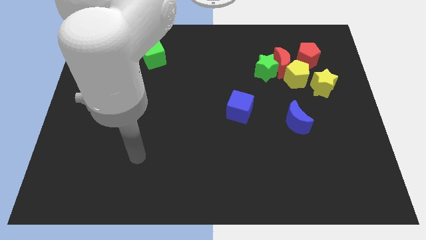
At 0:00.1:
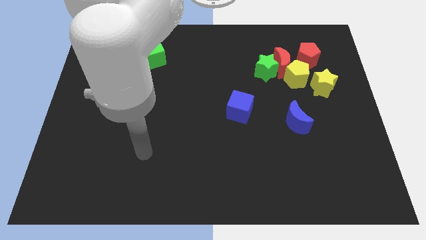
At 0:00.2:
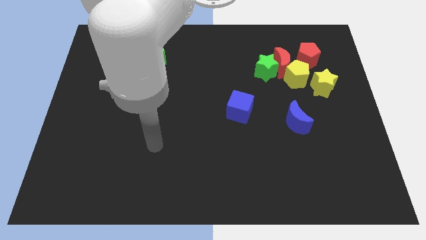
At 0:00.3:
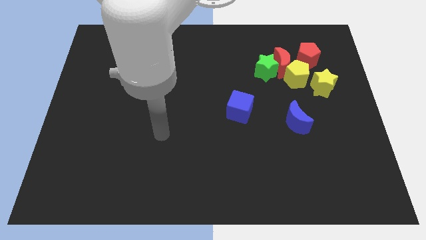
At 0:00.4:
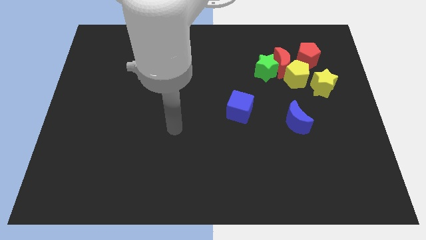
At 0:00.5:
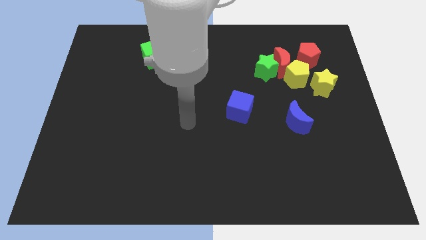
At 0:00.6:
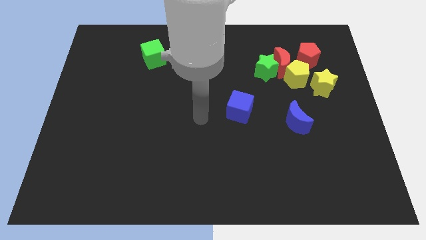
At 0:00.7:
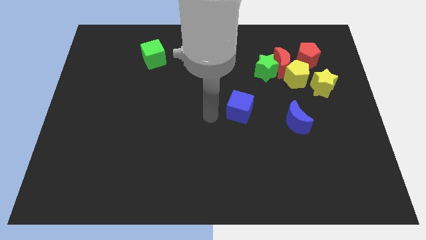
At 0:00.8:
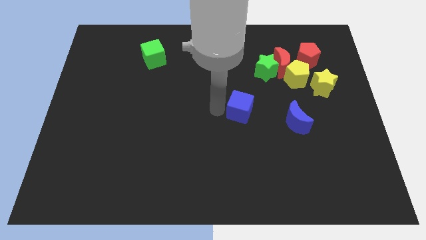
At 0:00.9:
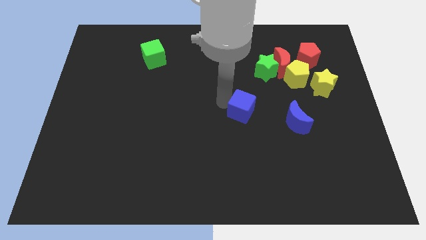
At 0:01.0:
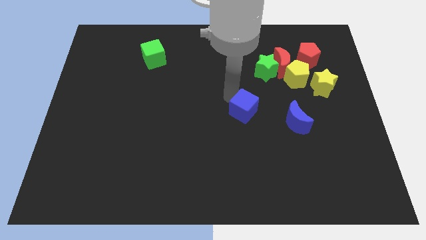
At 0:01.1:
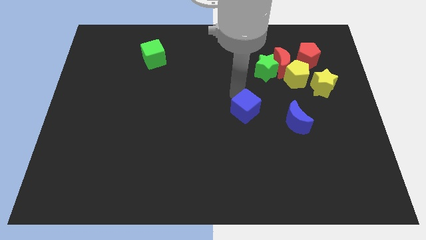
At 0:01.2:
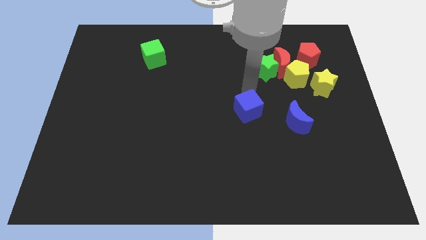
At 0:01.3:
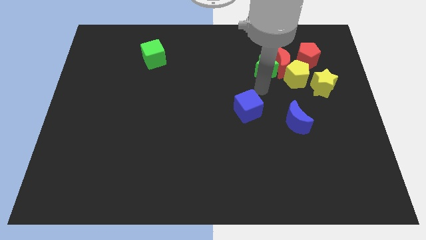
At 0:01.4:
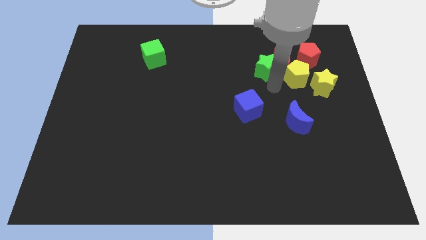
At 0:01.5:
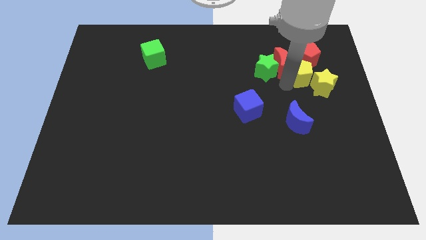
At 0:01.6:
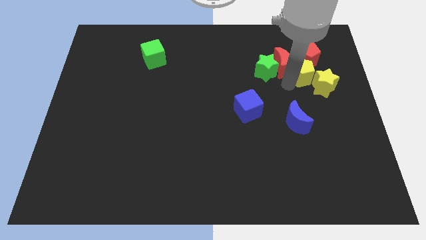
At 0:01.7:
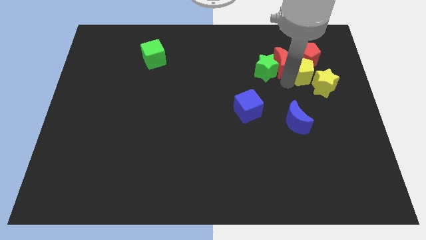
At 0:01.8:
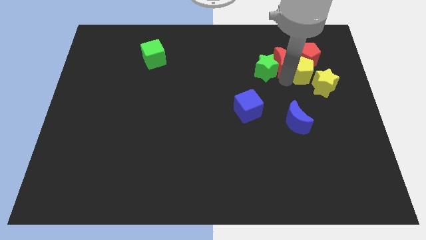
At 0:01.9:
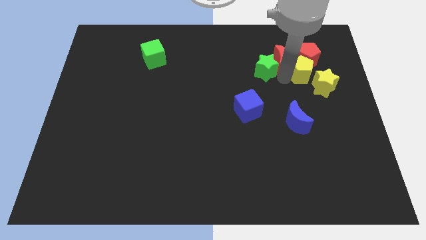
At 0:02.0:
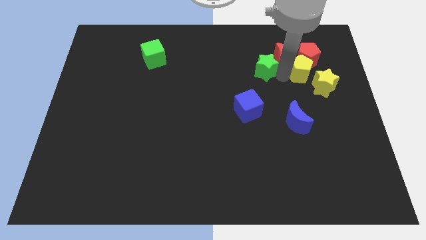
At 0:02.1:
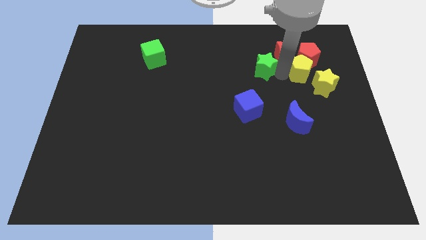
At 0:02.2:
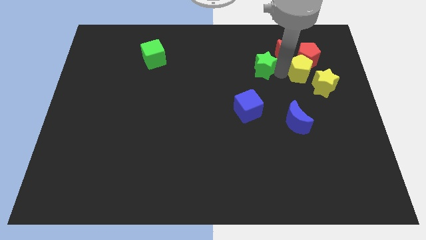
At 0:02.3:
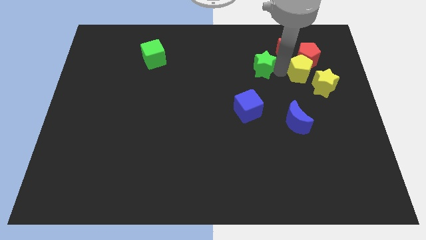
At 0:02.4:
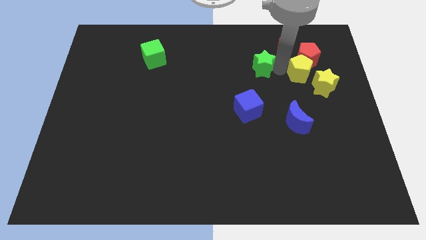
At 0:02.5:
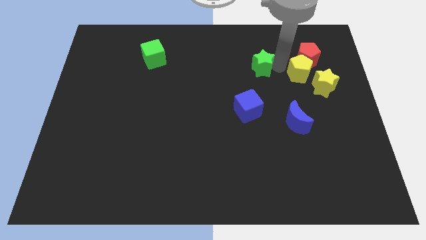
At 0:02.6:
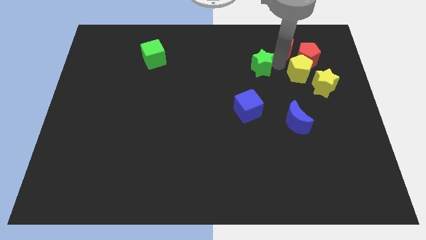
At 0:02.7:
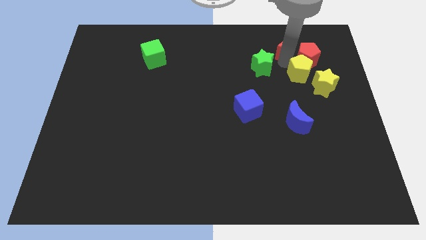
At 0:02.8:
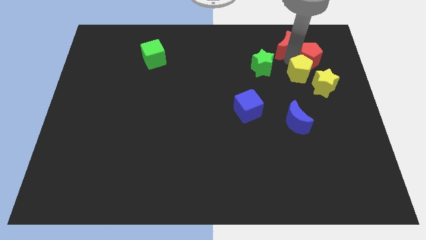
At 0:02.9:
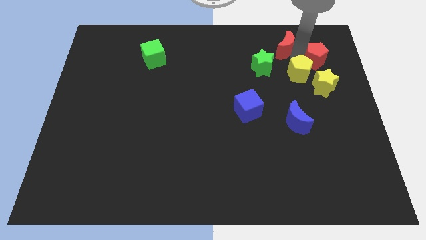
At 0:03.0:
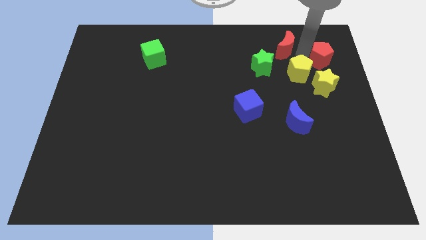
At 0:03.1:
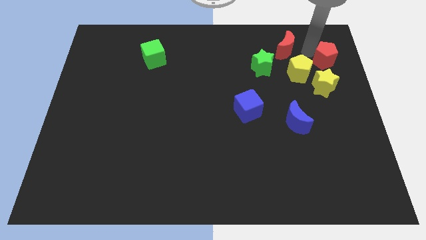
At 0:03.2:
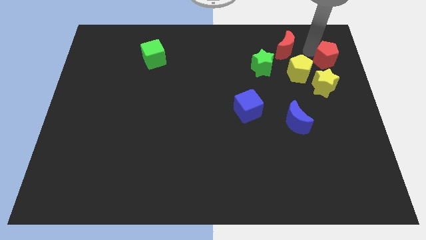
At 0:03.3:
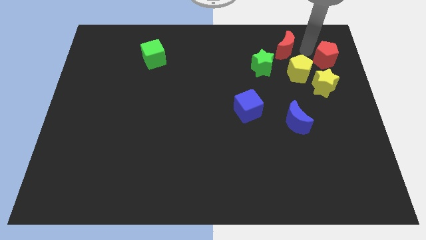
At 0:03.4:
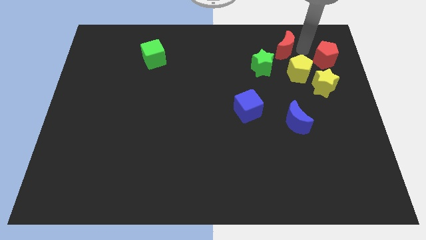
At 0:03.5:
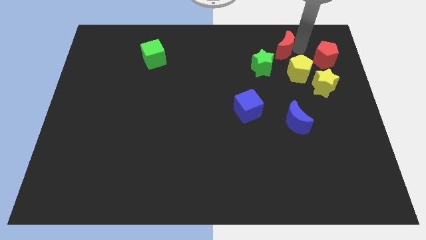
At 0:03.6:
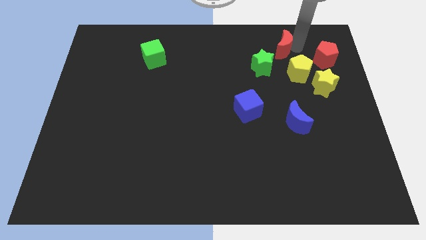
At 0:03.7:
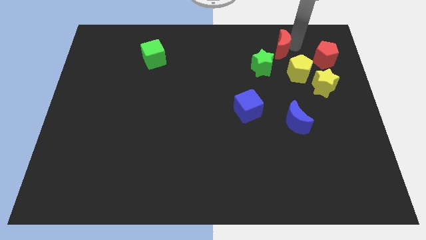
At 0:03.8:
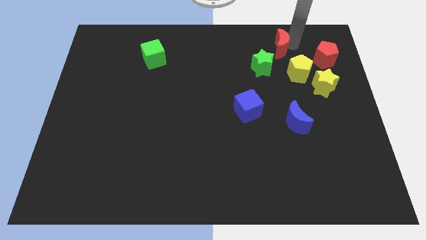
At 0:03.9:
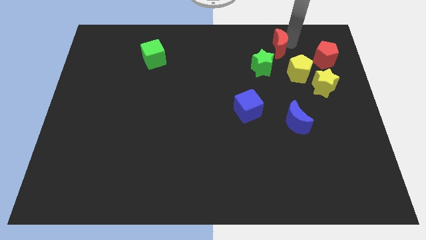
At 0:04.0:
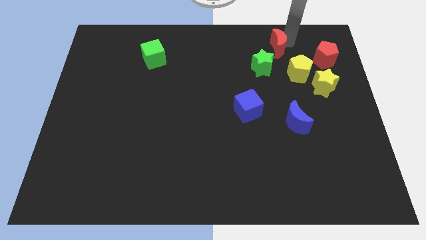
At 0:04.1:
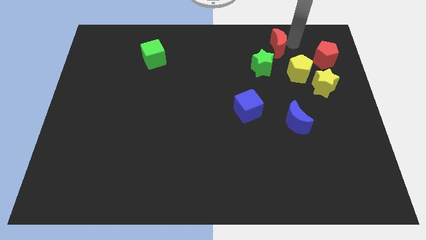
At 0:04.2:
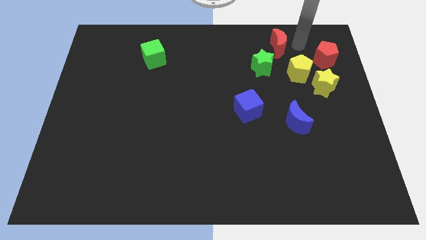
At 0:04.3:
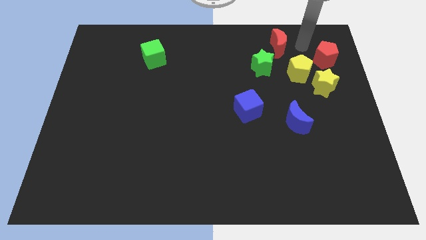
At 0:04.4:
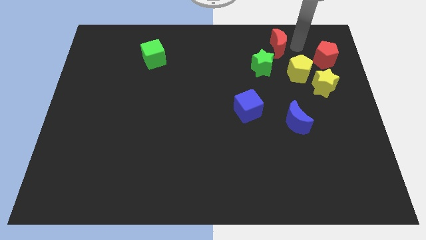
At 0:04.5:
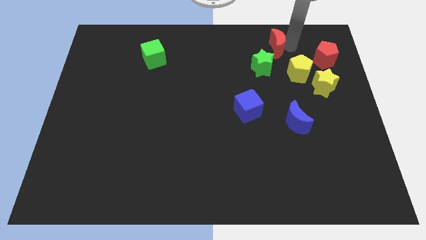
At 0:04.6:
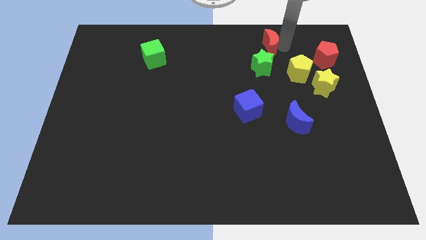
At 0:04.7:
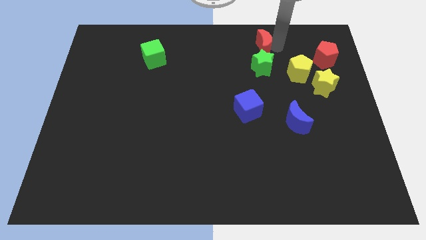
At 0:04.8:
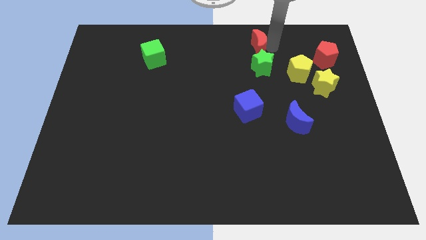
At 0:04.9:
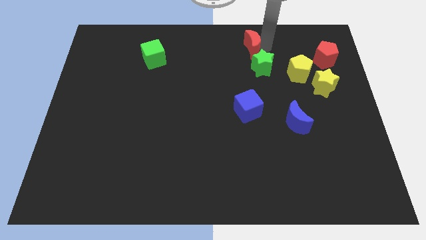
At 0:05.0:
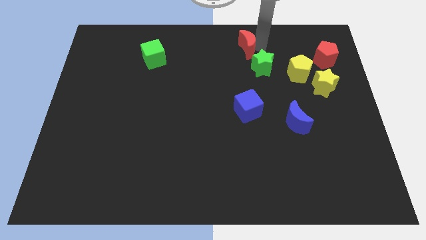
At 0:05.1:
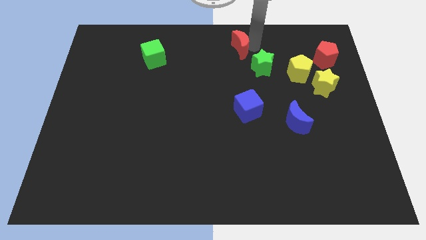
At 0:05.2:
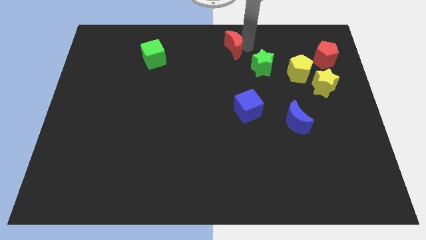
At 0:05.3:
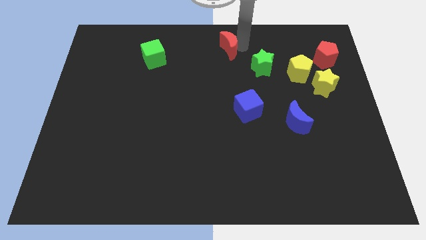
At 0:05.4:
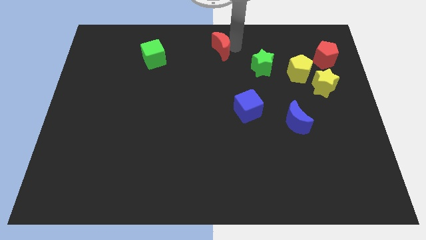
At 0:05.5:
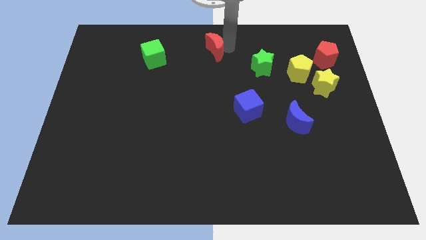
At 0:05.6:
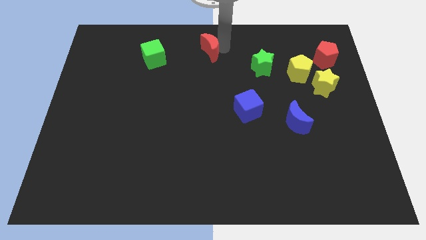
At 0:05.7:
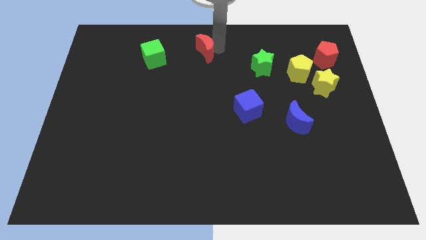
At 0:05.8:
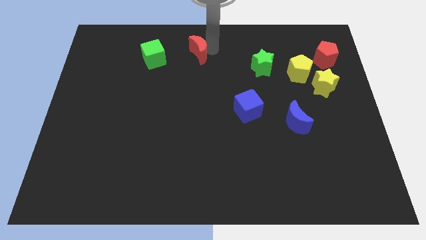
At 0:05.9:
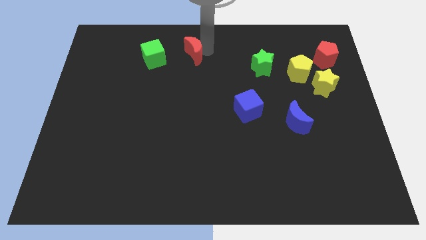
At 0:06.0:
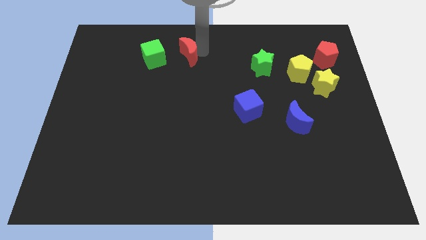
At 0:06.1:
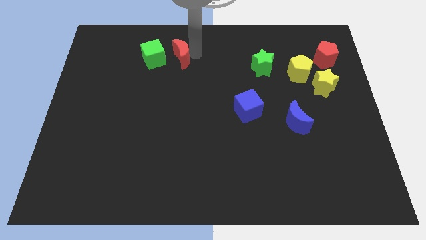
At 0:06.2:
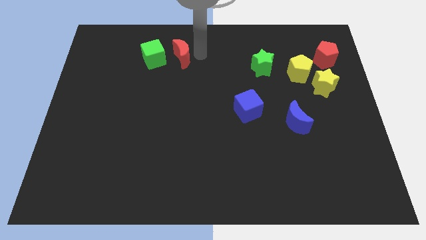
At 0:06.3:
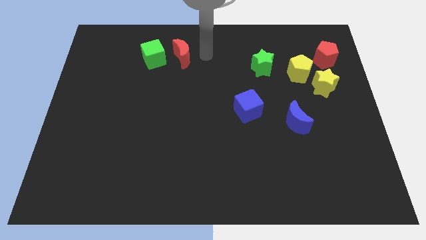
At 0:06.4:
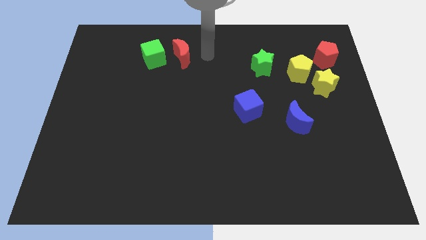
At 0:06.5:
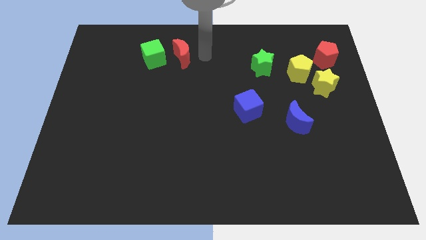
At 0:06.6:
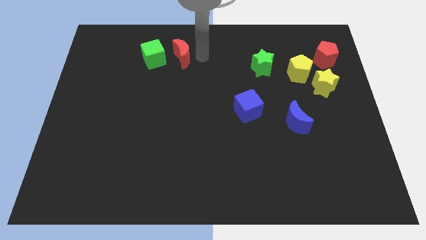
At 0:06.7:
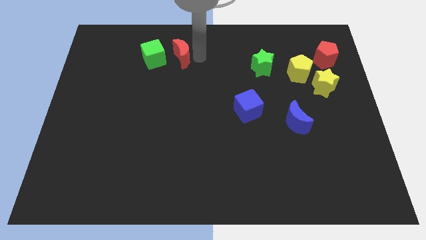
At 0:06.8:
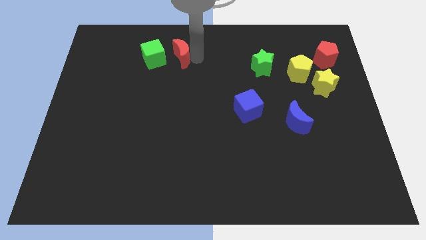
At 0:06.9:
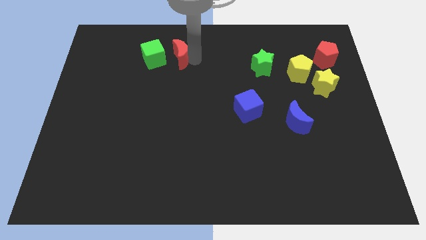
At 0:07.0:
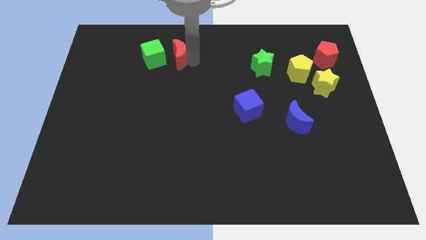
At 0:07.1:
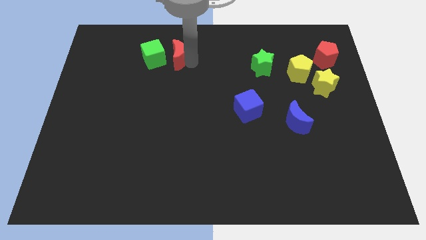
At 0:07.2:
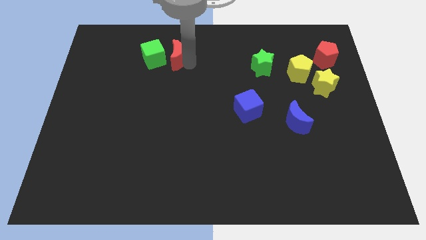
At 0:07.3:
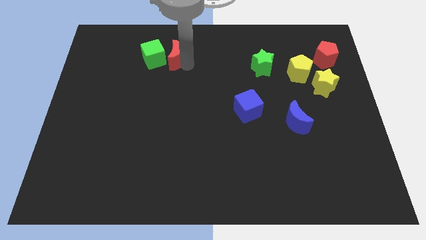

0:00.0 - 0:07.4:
put the red moon close to the green cube
